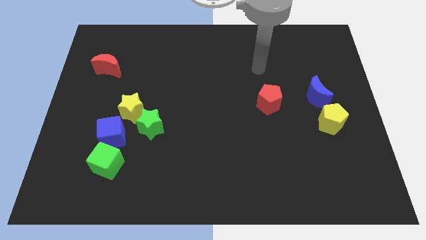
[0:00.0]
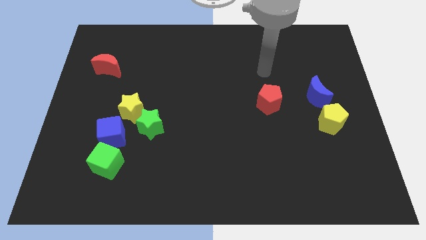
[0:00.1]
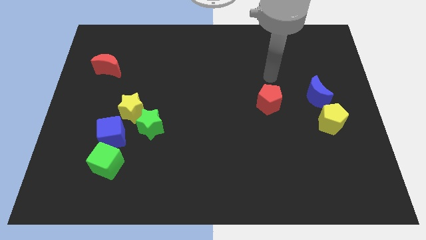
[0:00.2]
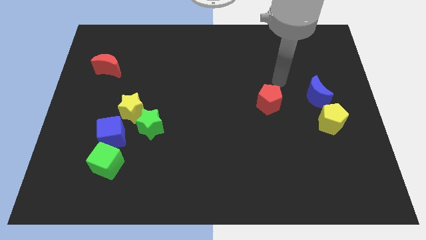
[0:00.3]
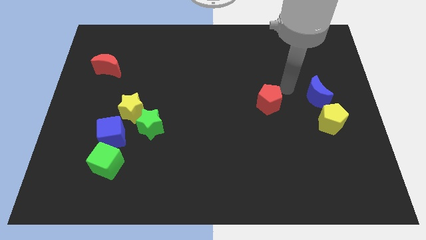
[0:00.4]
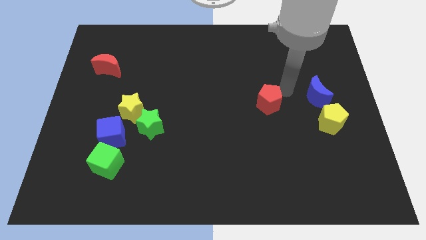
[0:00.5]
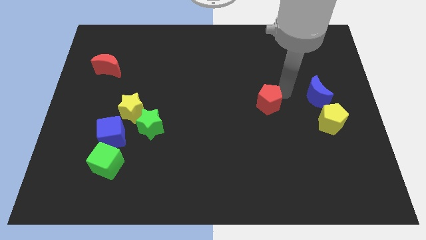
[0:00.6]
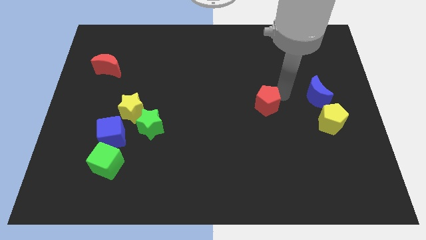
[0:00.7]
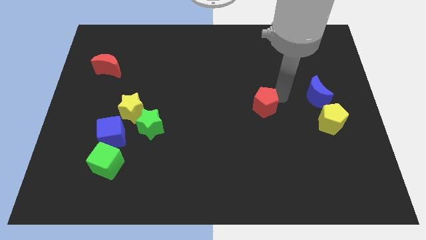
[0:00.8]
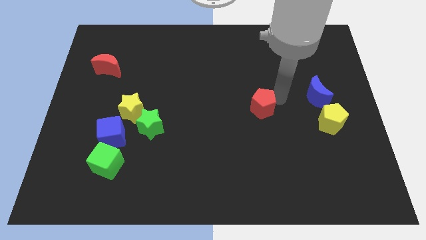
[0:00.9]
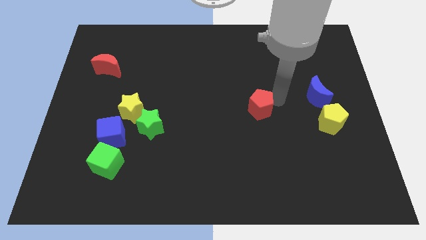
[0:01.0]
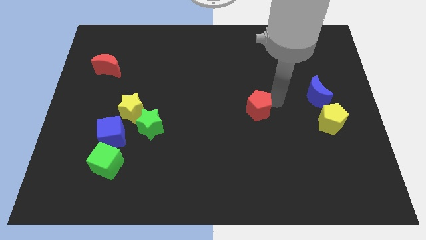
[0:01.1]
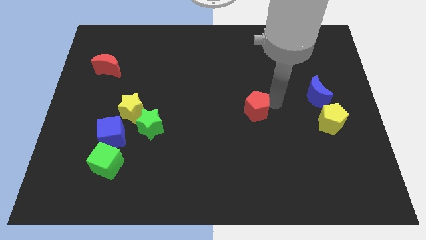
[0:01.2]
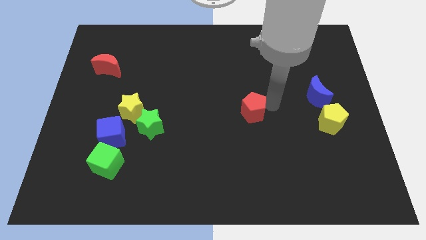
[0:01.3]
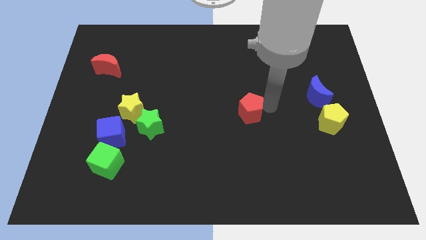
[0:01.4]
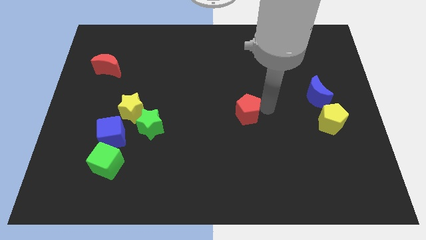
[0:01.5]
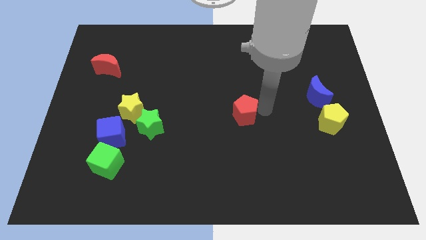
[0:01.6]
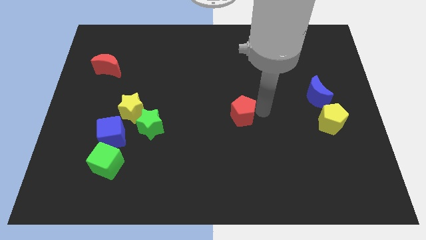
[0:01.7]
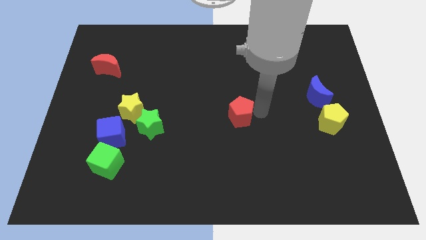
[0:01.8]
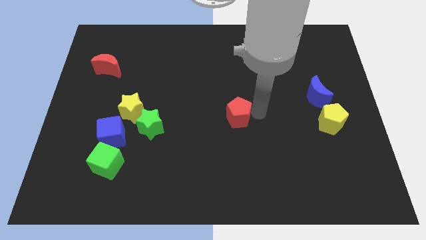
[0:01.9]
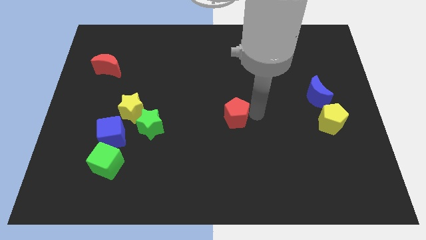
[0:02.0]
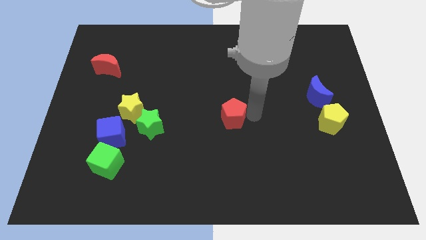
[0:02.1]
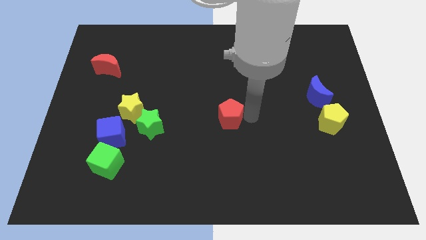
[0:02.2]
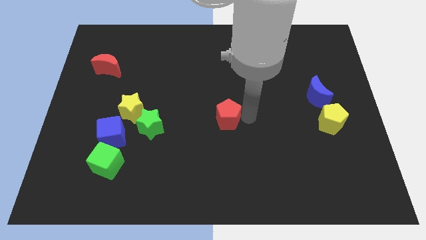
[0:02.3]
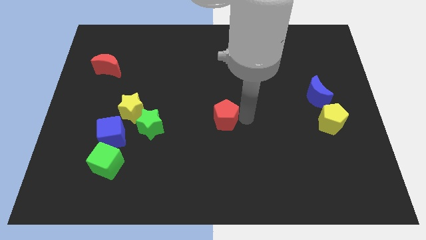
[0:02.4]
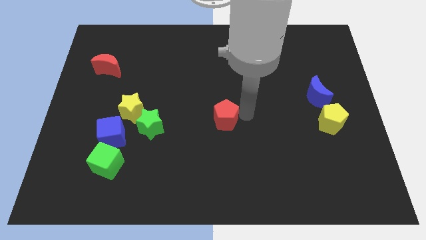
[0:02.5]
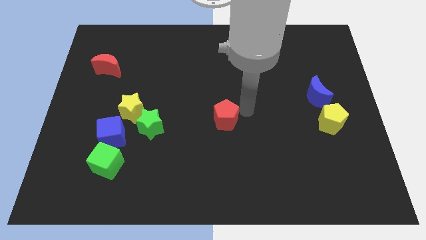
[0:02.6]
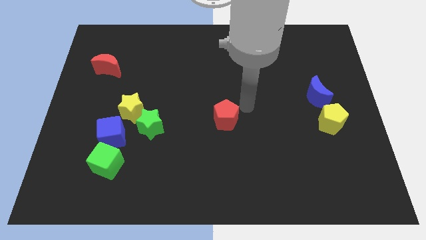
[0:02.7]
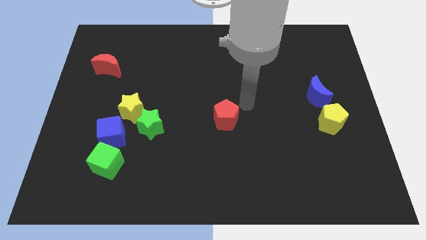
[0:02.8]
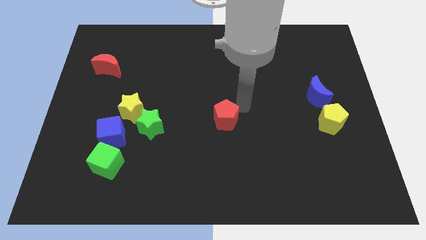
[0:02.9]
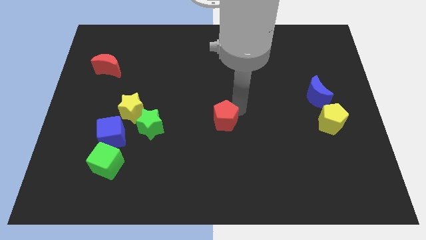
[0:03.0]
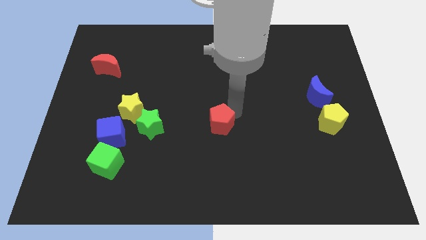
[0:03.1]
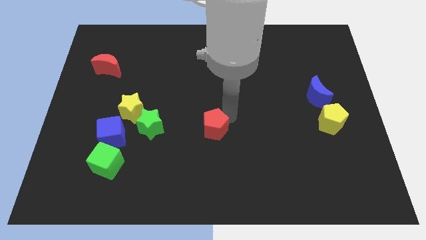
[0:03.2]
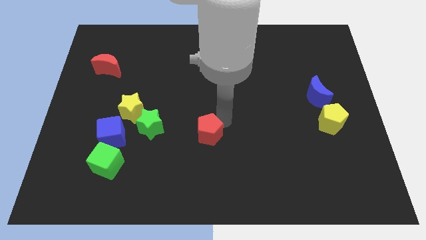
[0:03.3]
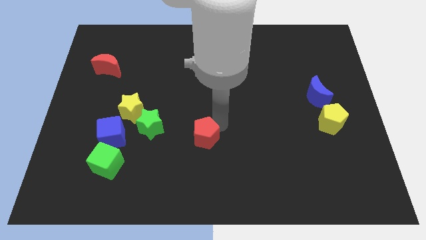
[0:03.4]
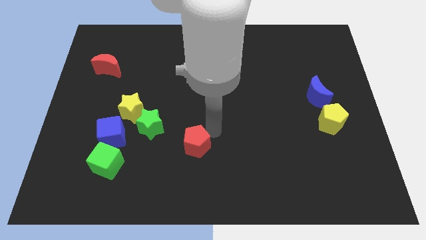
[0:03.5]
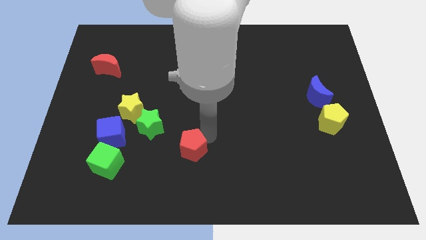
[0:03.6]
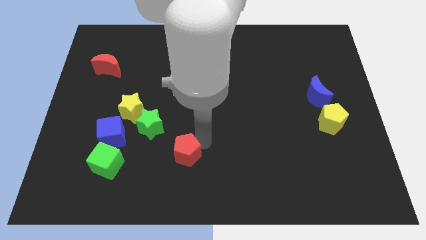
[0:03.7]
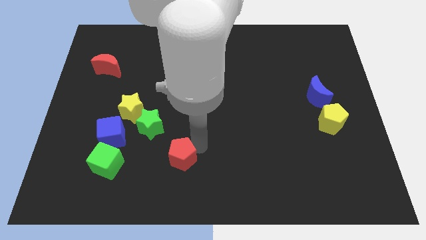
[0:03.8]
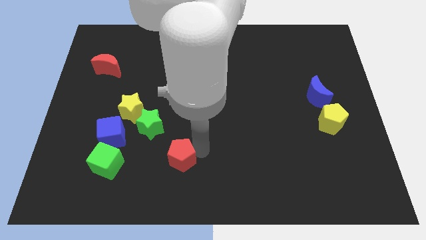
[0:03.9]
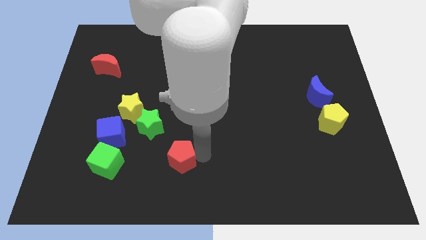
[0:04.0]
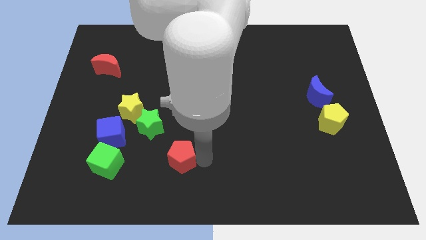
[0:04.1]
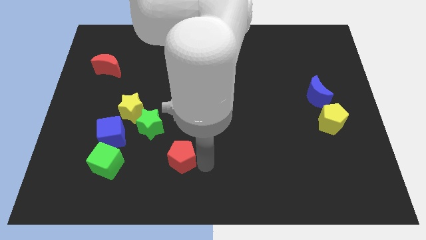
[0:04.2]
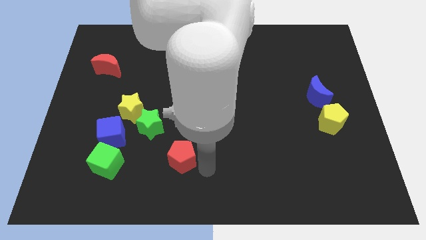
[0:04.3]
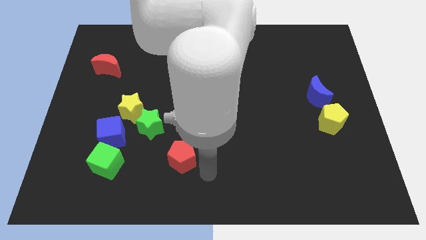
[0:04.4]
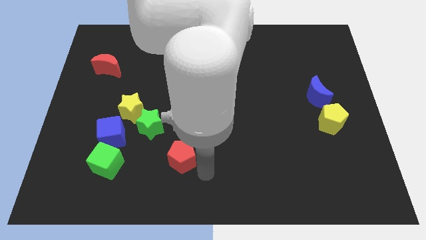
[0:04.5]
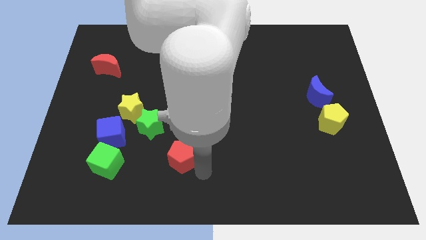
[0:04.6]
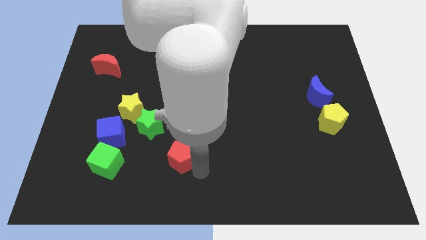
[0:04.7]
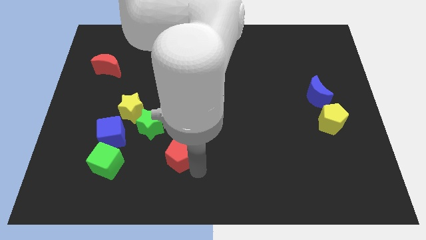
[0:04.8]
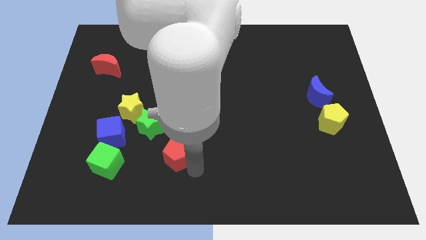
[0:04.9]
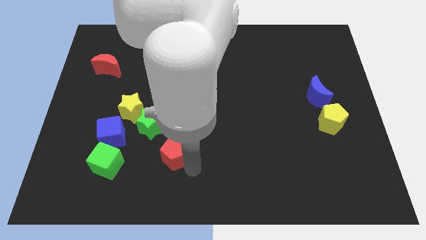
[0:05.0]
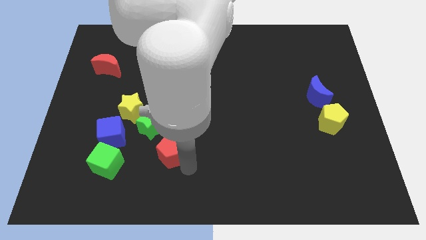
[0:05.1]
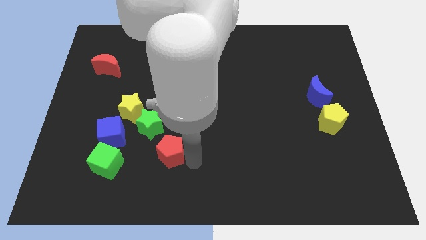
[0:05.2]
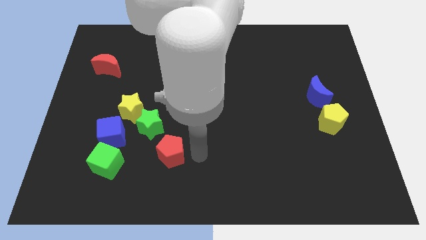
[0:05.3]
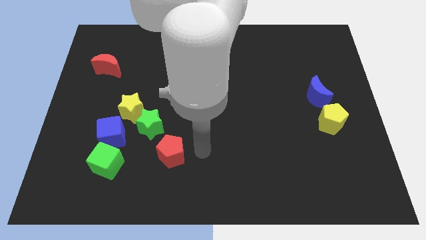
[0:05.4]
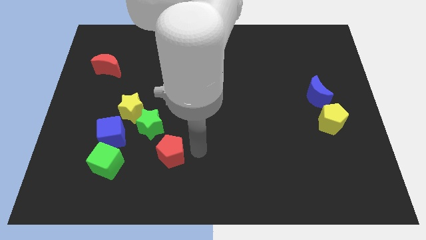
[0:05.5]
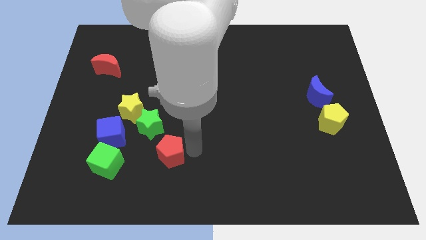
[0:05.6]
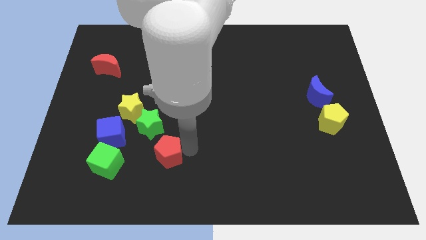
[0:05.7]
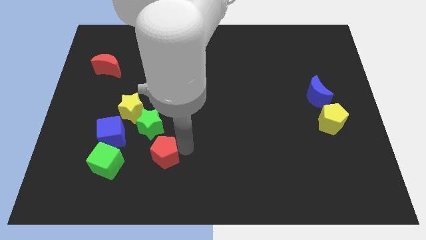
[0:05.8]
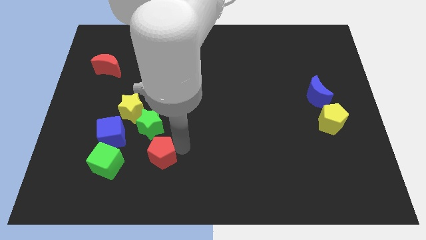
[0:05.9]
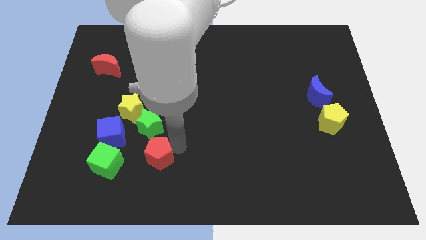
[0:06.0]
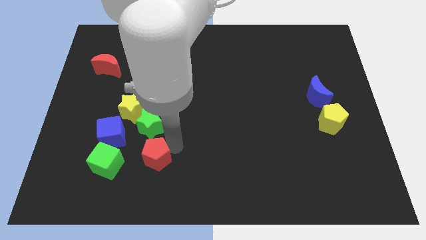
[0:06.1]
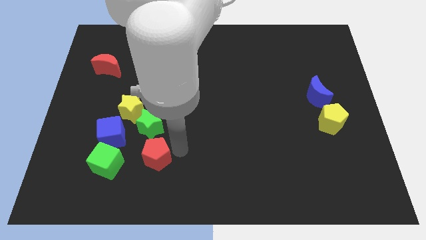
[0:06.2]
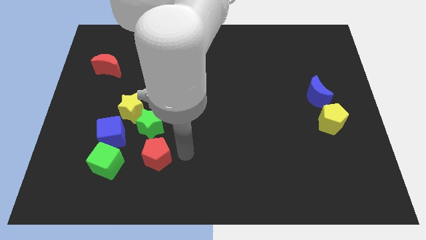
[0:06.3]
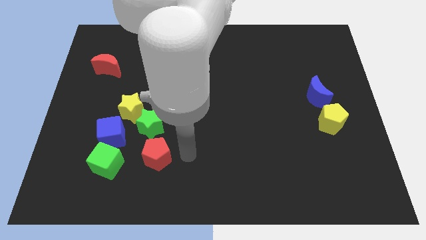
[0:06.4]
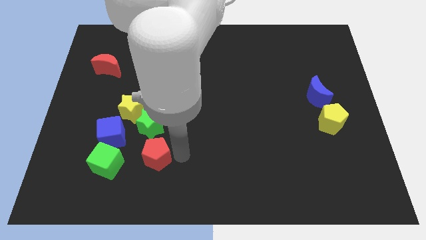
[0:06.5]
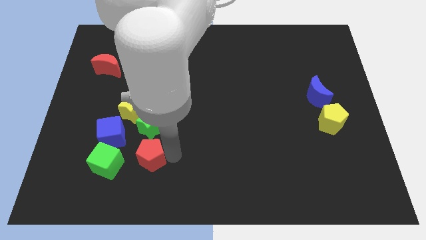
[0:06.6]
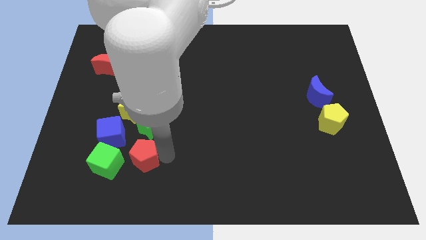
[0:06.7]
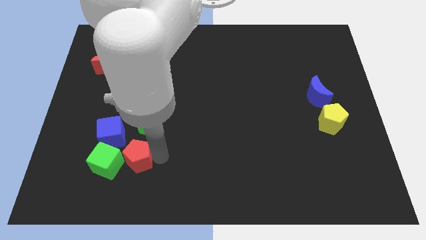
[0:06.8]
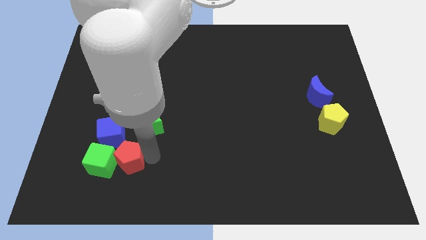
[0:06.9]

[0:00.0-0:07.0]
slide the red pentagon close to the green cube
